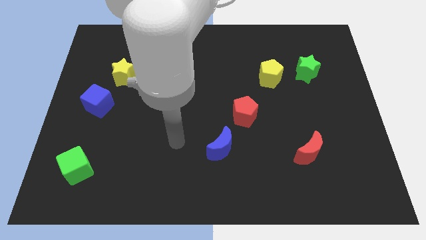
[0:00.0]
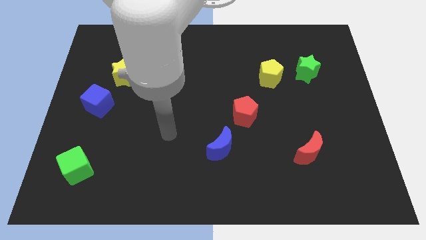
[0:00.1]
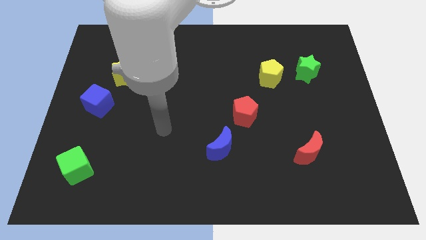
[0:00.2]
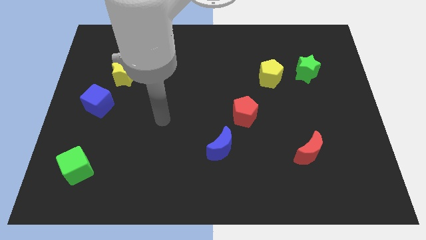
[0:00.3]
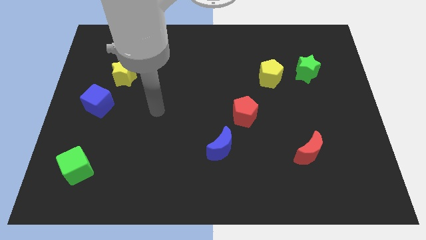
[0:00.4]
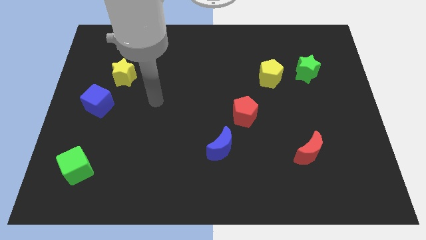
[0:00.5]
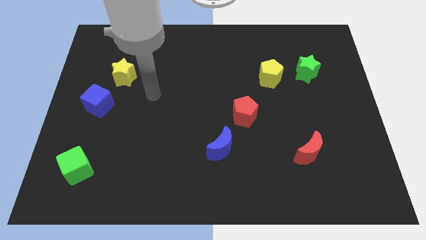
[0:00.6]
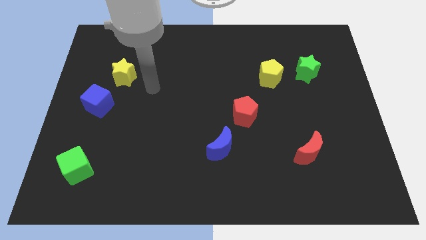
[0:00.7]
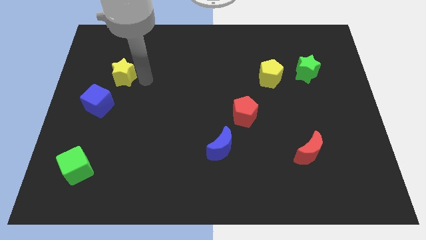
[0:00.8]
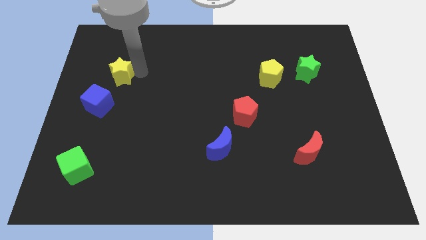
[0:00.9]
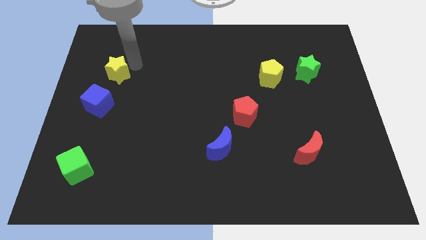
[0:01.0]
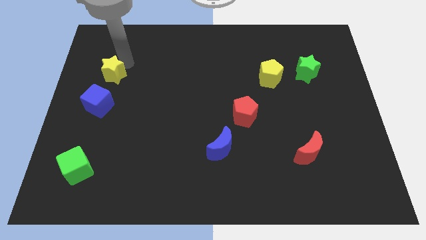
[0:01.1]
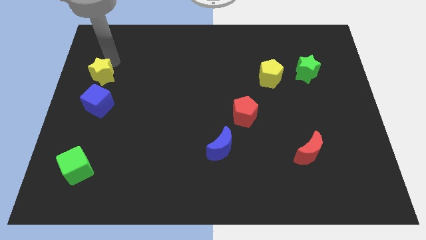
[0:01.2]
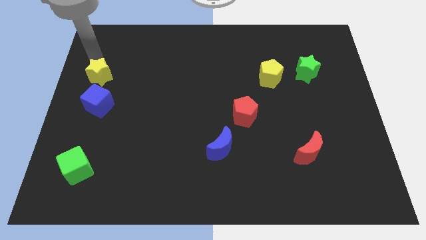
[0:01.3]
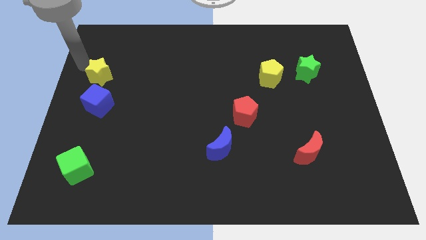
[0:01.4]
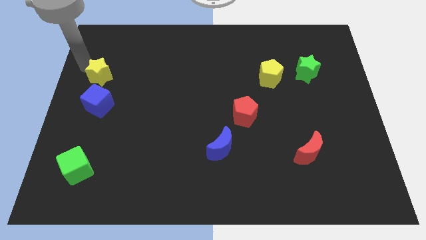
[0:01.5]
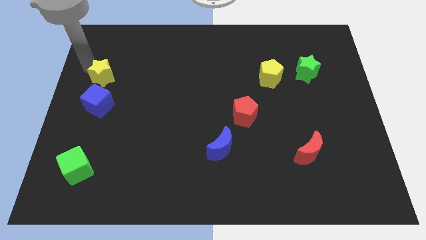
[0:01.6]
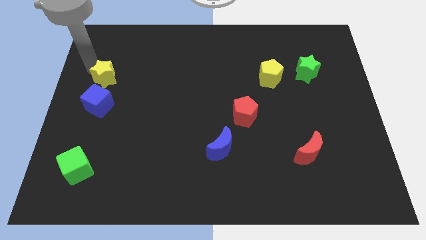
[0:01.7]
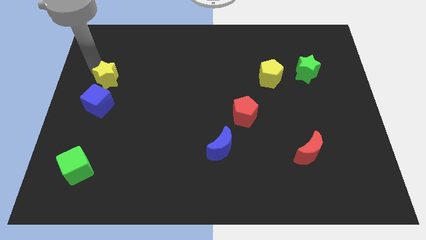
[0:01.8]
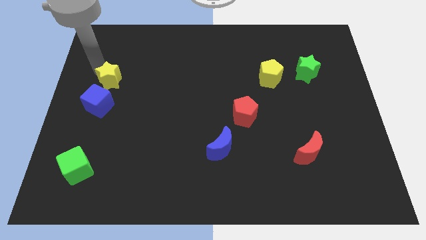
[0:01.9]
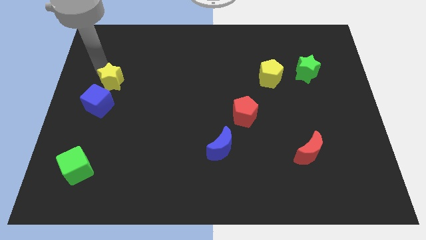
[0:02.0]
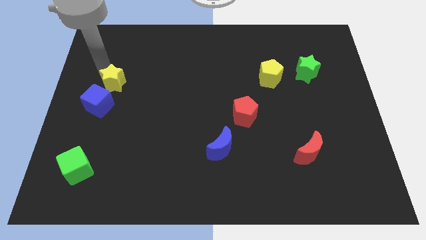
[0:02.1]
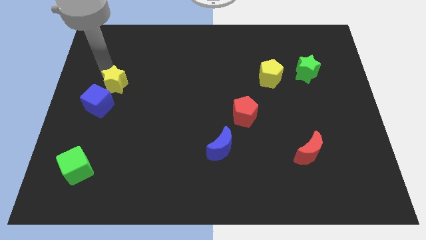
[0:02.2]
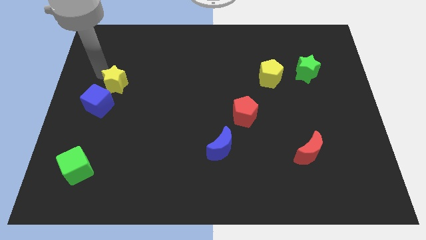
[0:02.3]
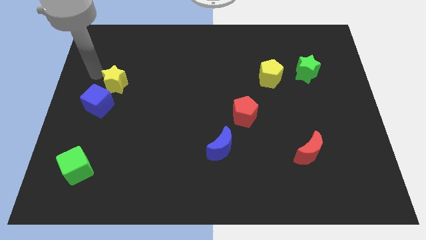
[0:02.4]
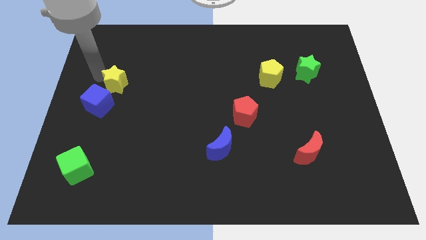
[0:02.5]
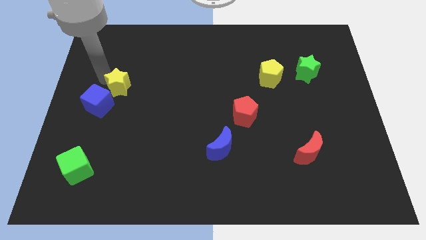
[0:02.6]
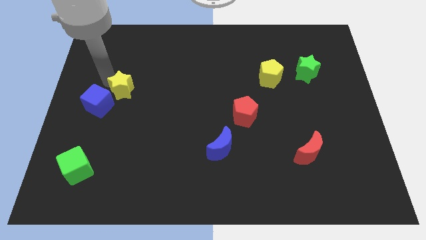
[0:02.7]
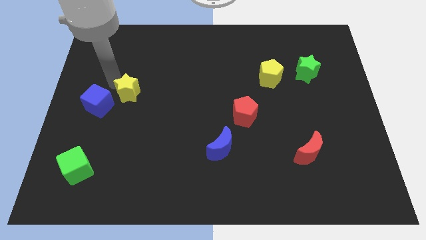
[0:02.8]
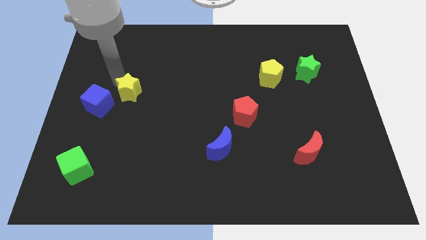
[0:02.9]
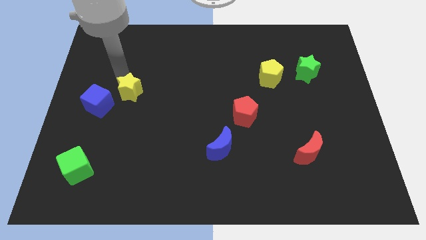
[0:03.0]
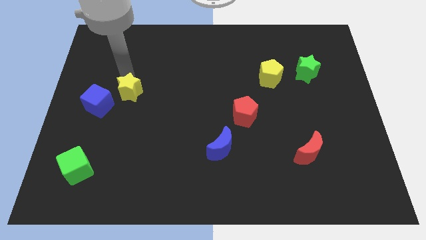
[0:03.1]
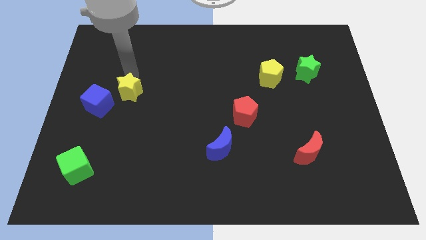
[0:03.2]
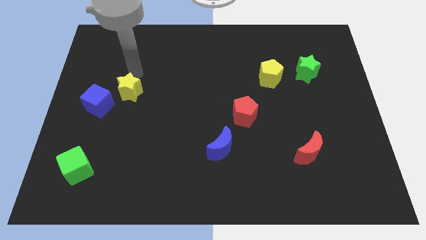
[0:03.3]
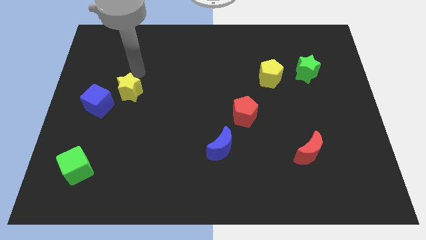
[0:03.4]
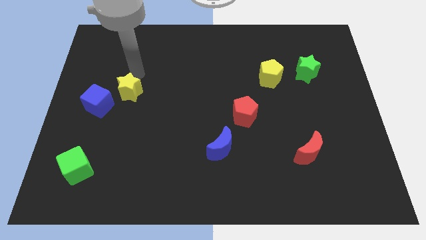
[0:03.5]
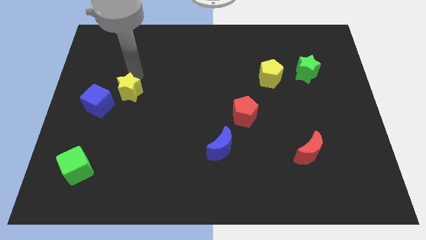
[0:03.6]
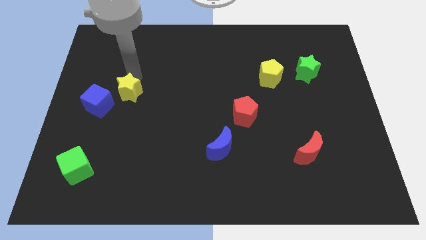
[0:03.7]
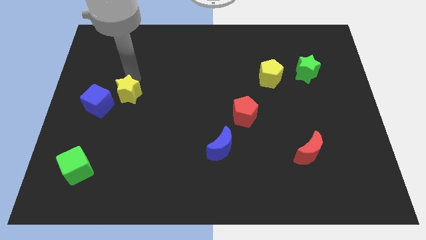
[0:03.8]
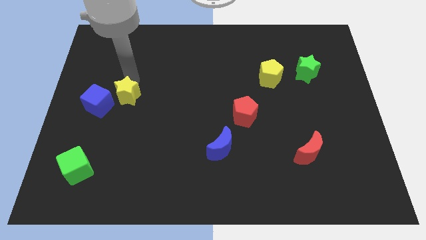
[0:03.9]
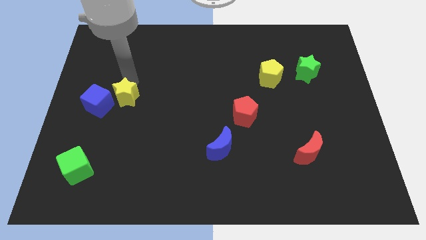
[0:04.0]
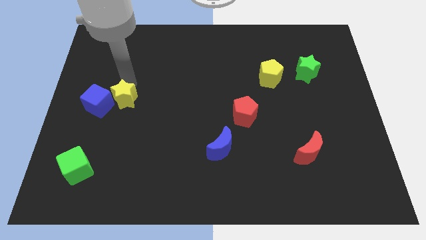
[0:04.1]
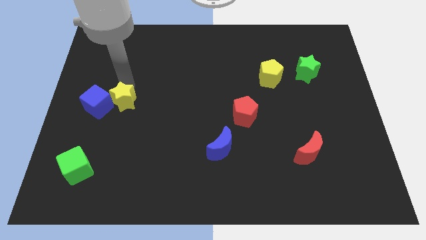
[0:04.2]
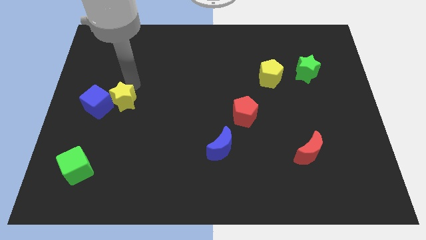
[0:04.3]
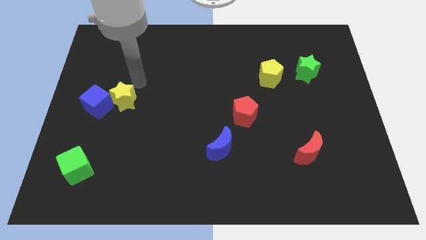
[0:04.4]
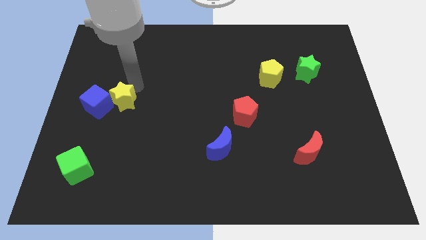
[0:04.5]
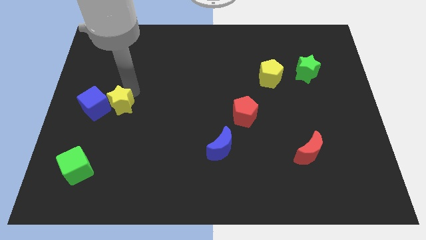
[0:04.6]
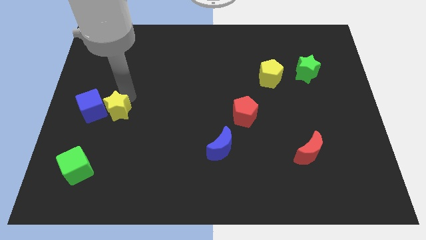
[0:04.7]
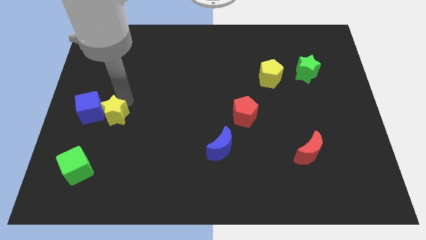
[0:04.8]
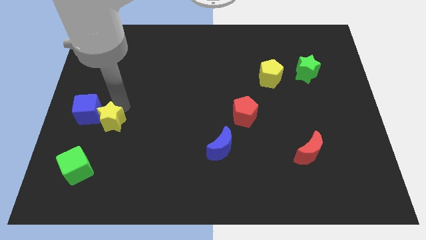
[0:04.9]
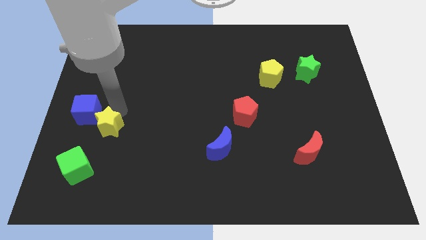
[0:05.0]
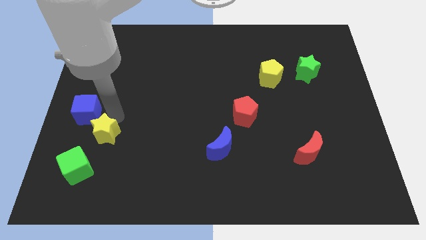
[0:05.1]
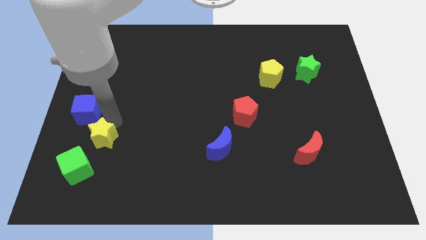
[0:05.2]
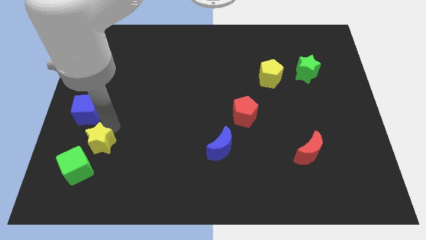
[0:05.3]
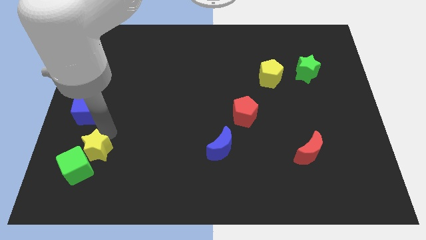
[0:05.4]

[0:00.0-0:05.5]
slide the yellow star towards the green cube

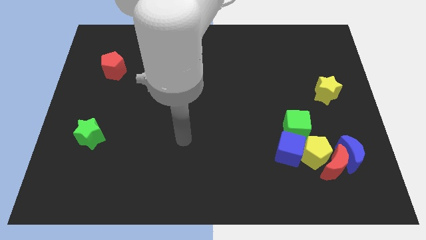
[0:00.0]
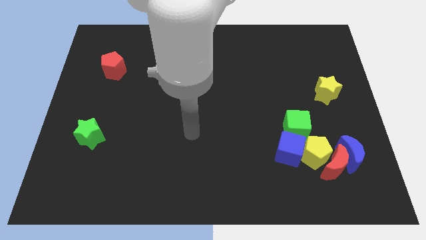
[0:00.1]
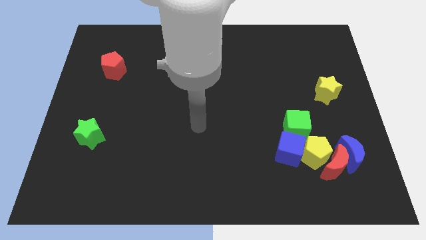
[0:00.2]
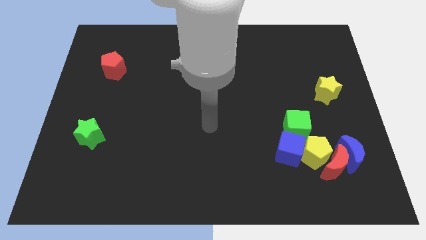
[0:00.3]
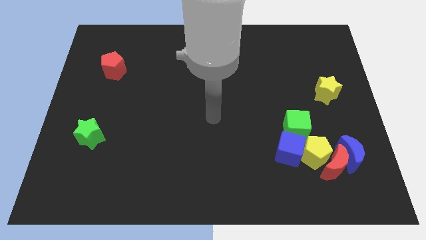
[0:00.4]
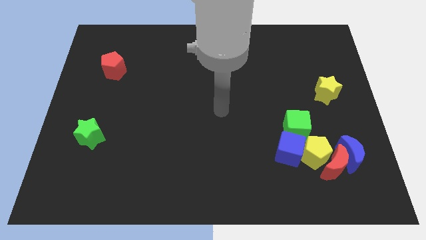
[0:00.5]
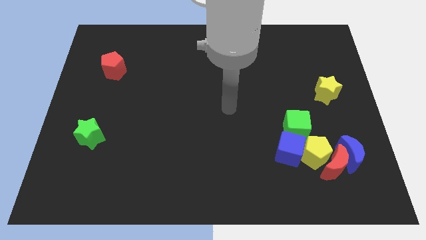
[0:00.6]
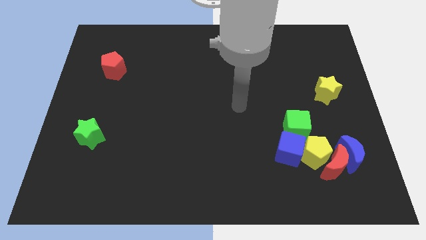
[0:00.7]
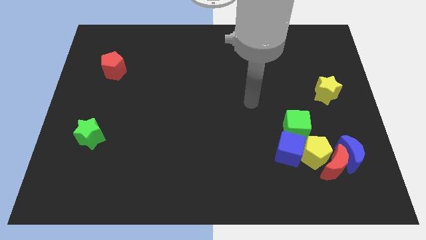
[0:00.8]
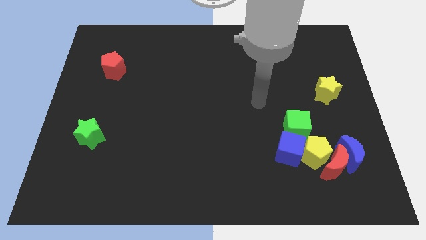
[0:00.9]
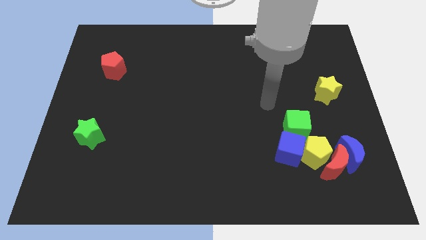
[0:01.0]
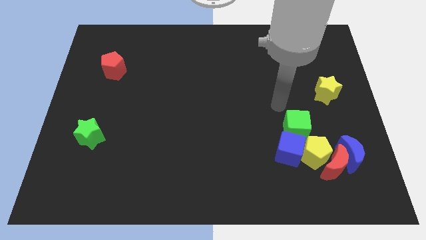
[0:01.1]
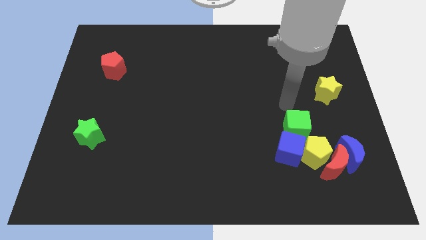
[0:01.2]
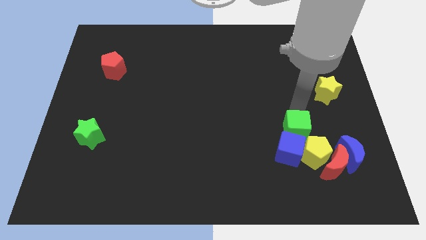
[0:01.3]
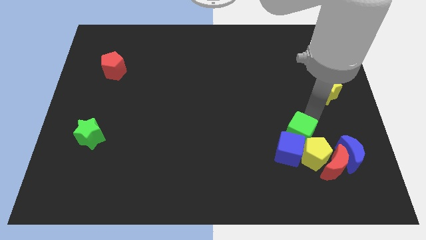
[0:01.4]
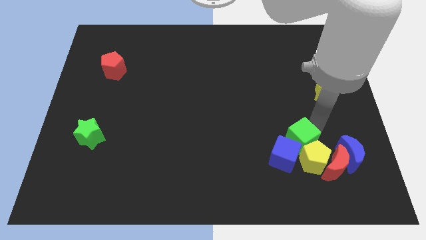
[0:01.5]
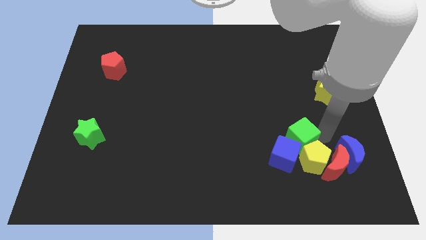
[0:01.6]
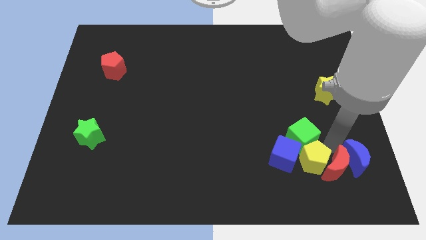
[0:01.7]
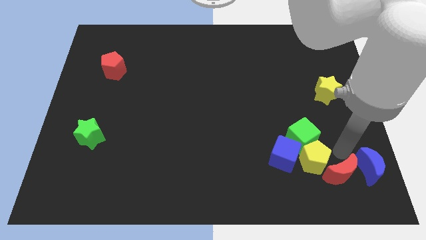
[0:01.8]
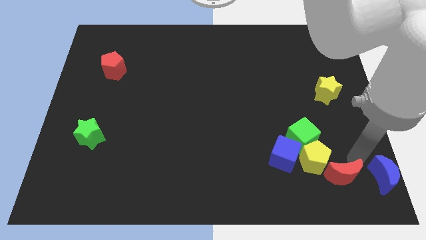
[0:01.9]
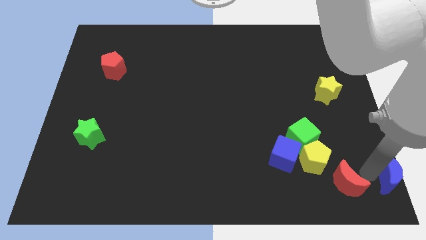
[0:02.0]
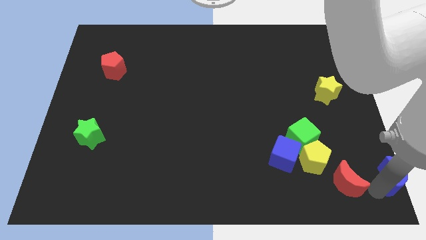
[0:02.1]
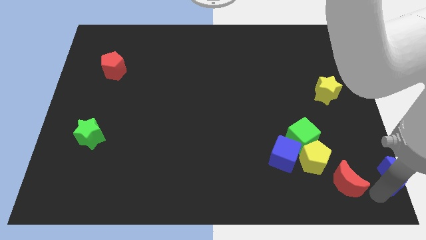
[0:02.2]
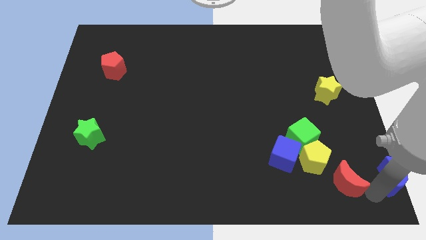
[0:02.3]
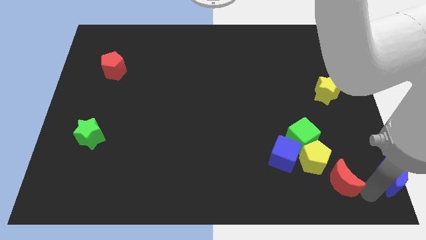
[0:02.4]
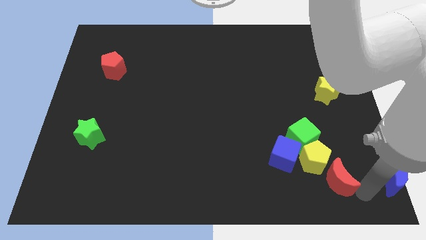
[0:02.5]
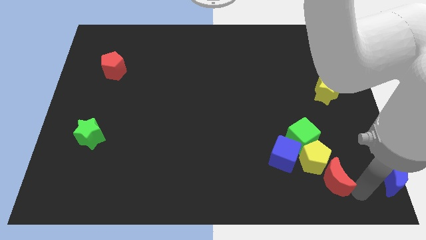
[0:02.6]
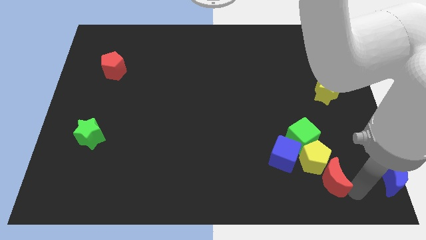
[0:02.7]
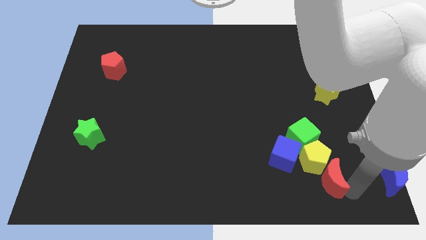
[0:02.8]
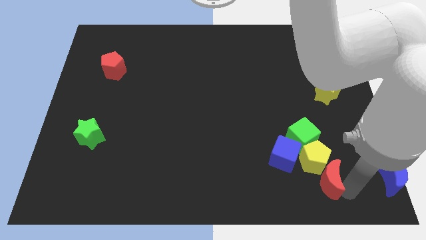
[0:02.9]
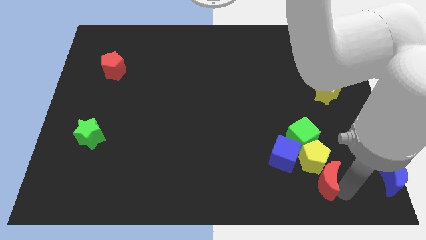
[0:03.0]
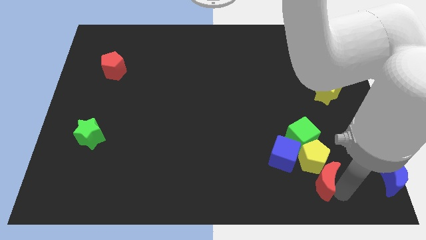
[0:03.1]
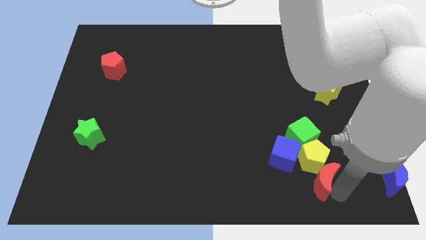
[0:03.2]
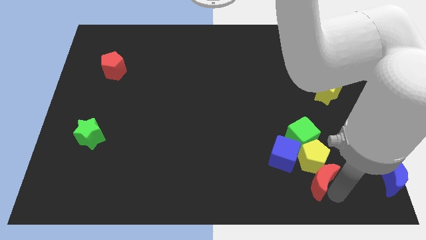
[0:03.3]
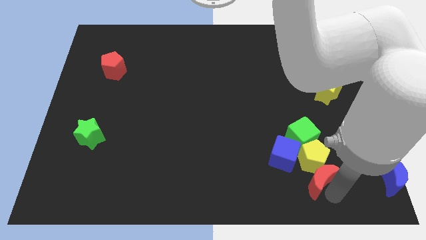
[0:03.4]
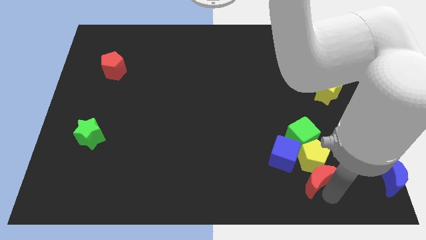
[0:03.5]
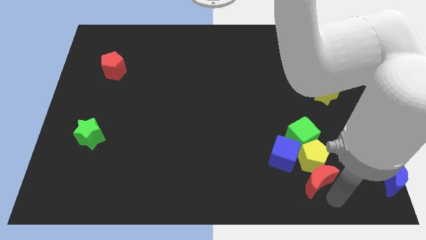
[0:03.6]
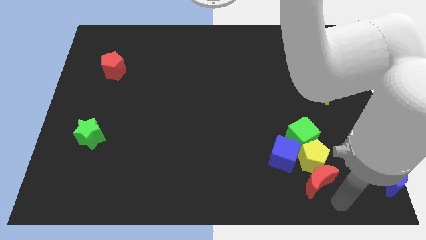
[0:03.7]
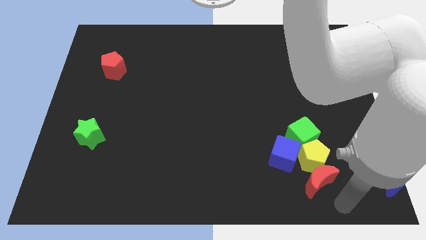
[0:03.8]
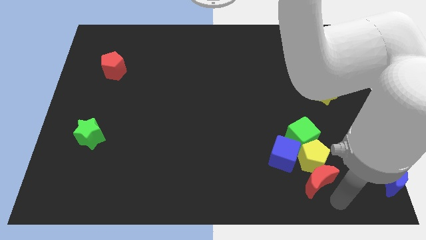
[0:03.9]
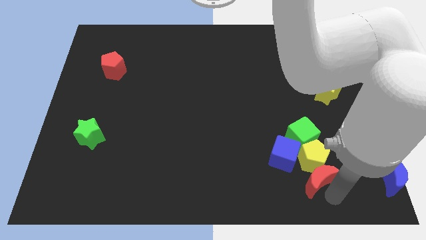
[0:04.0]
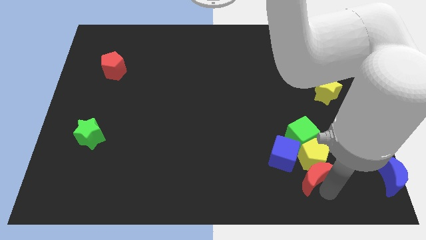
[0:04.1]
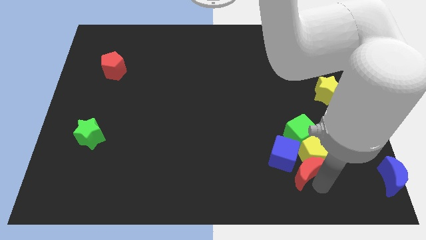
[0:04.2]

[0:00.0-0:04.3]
push the red moon towards the blue cube
